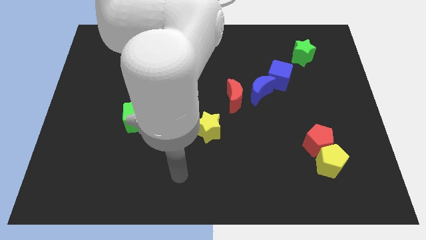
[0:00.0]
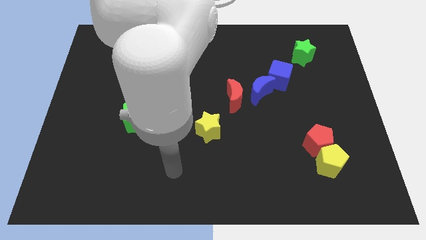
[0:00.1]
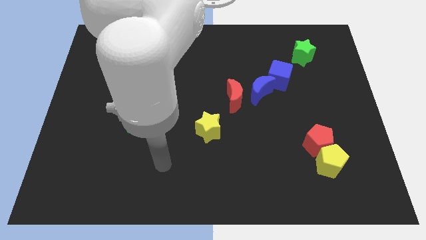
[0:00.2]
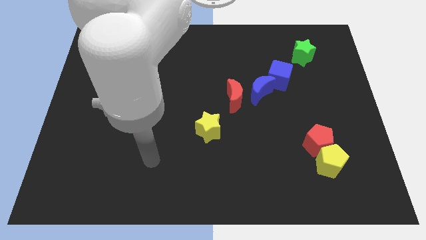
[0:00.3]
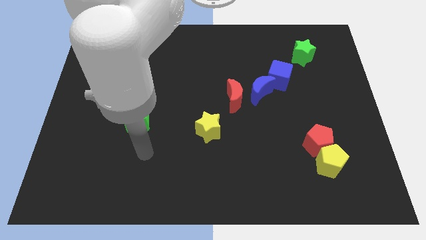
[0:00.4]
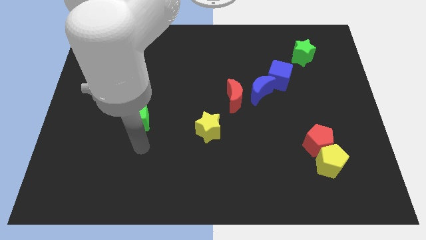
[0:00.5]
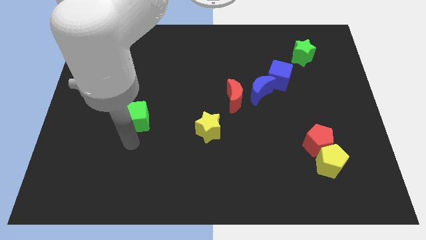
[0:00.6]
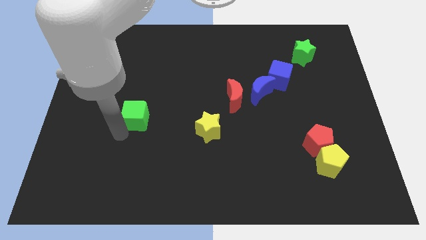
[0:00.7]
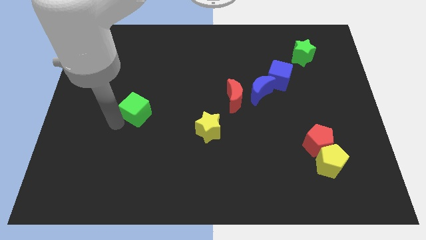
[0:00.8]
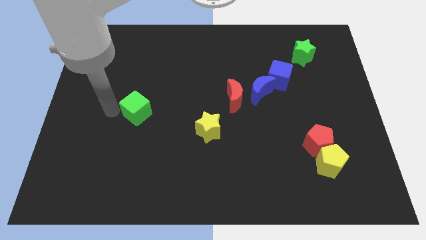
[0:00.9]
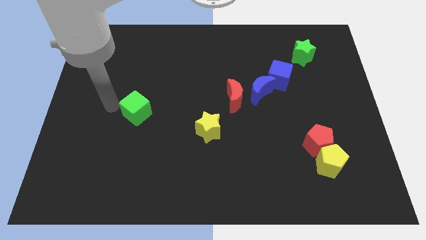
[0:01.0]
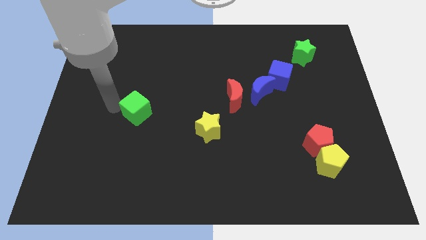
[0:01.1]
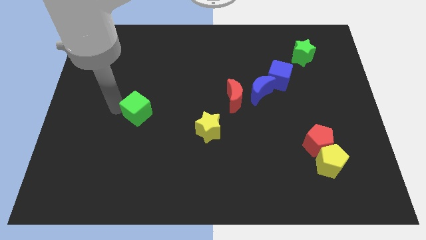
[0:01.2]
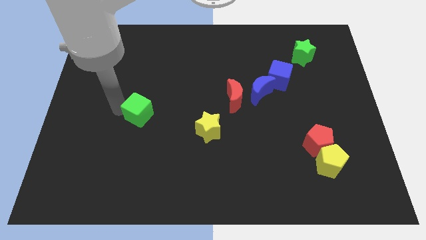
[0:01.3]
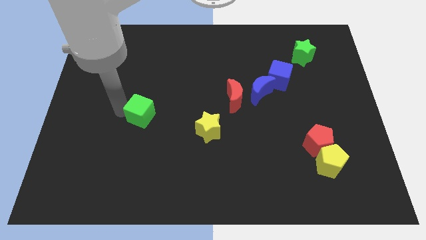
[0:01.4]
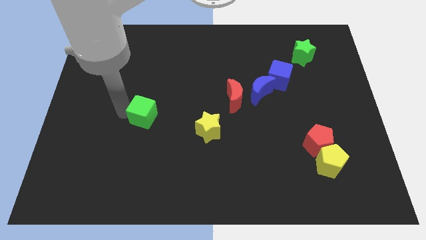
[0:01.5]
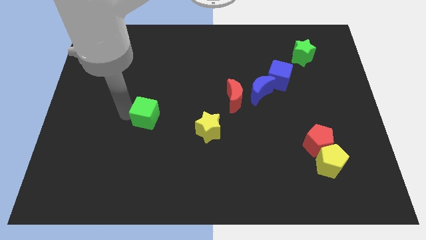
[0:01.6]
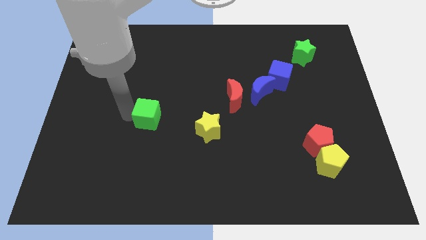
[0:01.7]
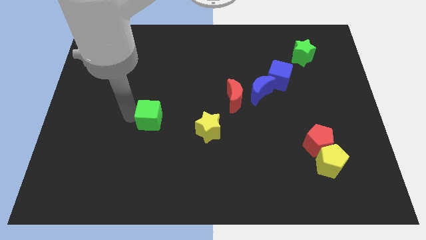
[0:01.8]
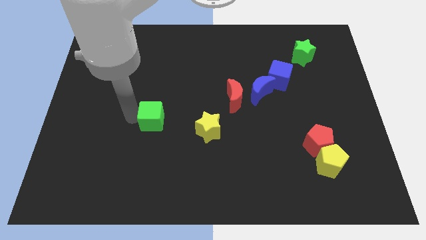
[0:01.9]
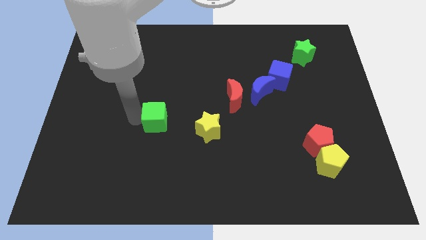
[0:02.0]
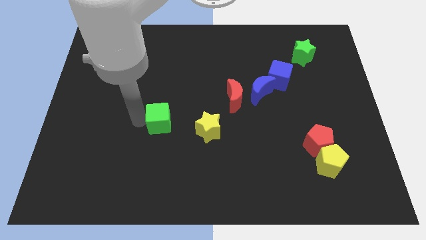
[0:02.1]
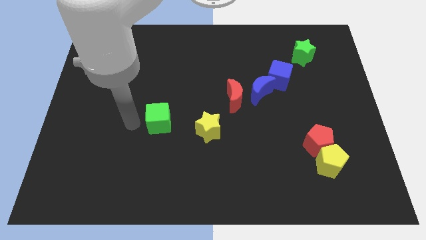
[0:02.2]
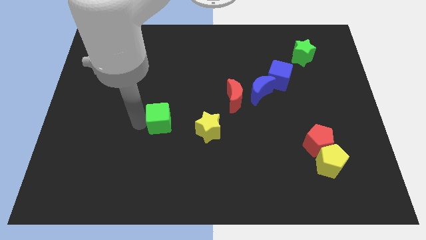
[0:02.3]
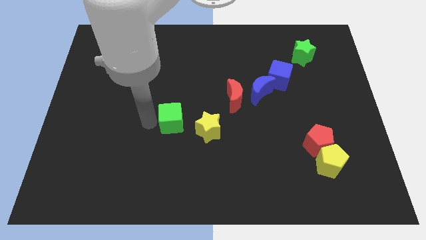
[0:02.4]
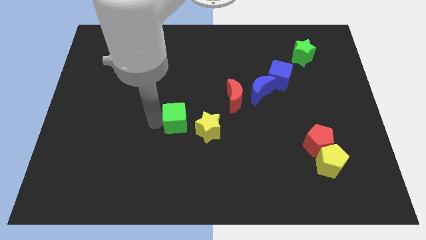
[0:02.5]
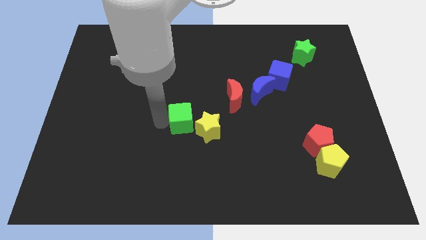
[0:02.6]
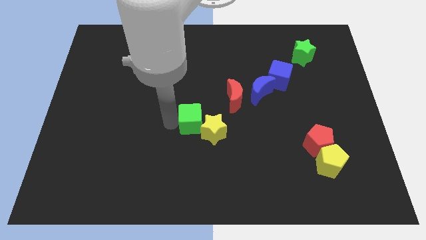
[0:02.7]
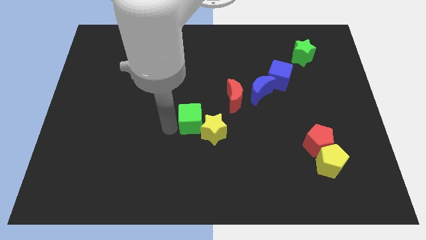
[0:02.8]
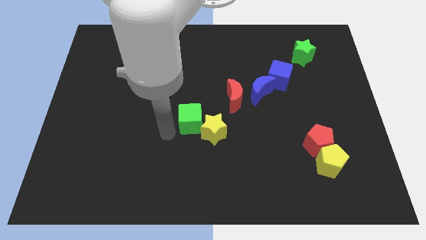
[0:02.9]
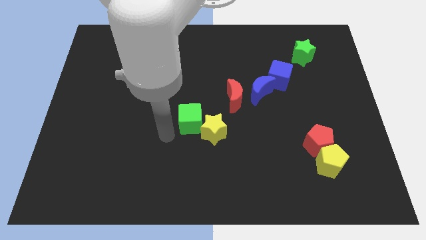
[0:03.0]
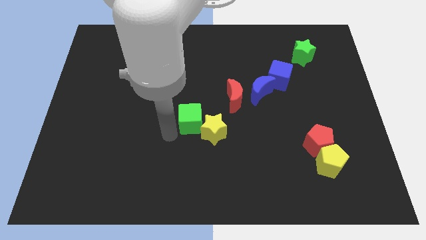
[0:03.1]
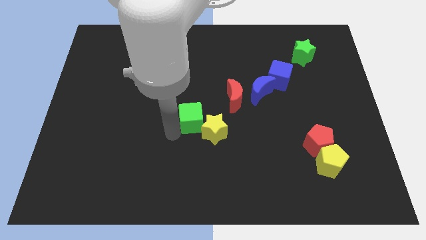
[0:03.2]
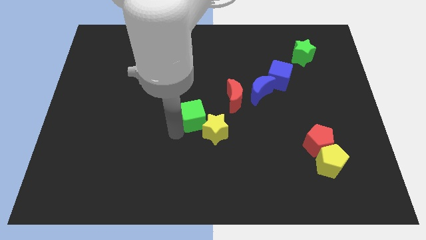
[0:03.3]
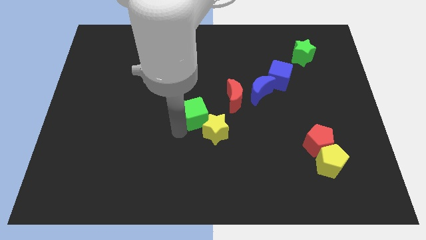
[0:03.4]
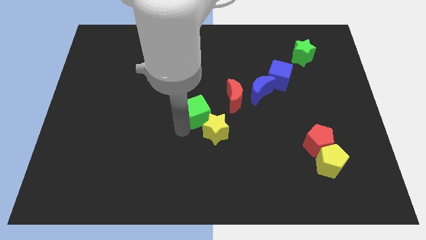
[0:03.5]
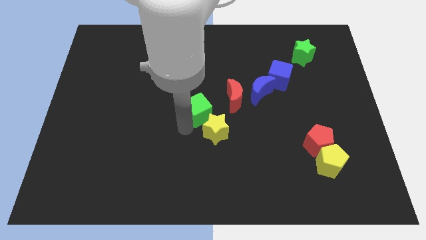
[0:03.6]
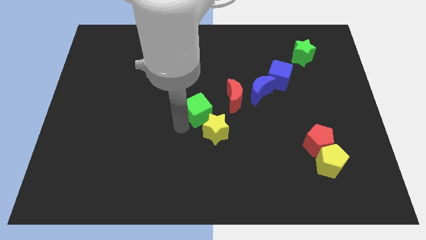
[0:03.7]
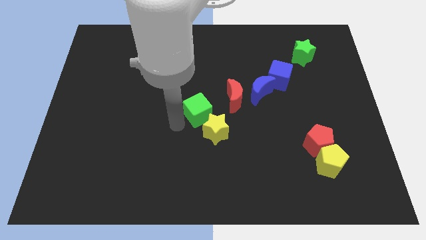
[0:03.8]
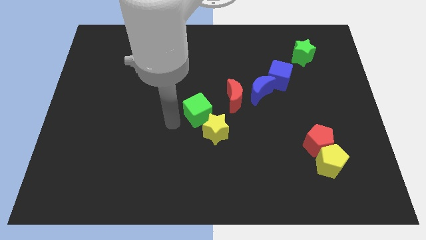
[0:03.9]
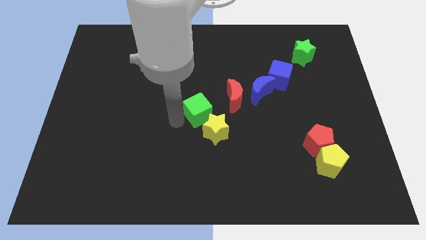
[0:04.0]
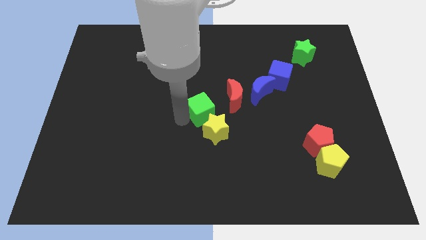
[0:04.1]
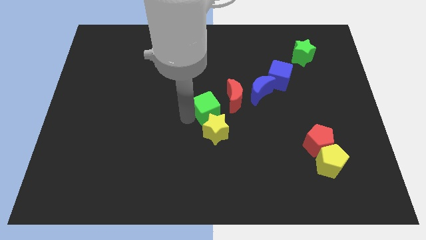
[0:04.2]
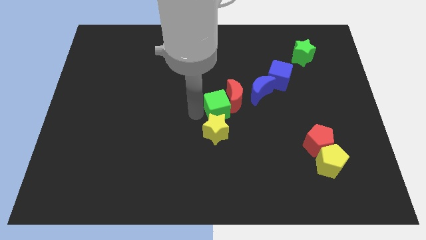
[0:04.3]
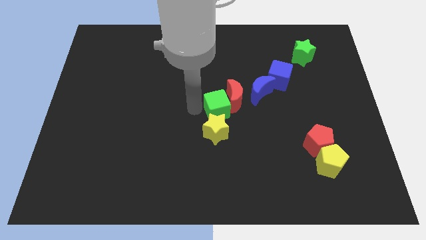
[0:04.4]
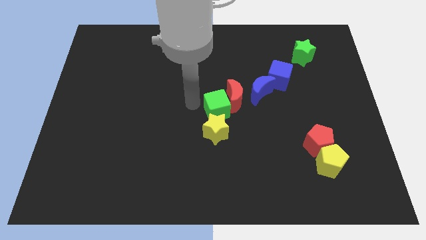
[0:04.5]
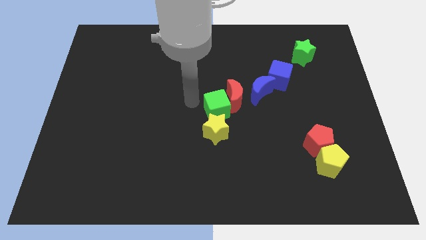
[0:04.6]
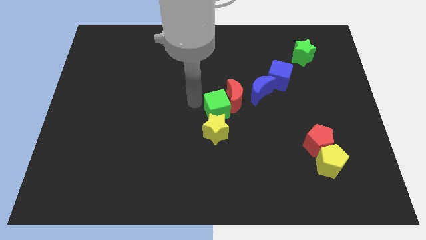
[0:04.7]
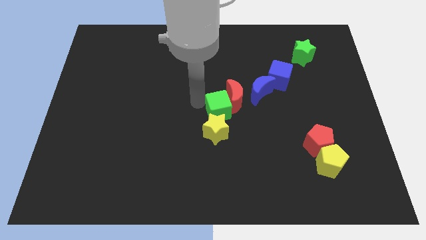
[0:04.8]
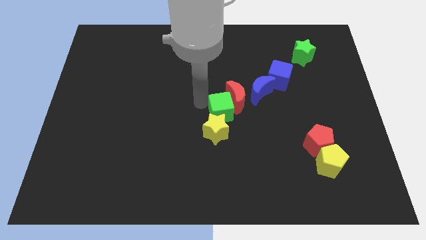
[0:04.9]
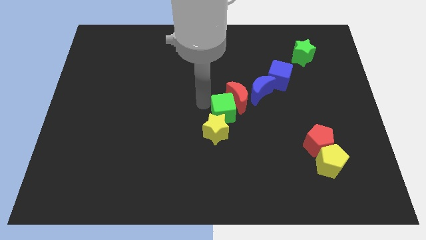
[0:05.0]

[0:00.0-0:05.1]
push the green cube to the right

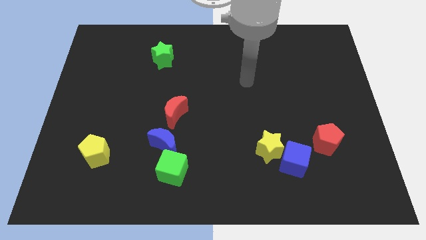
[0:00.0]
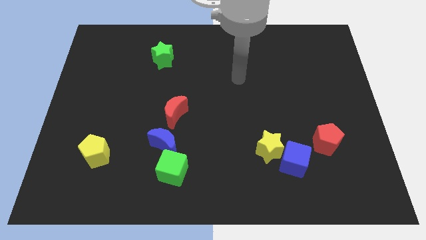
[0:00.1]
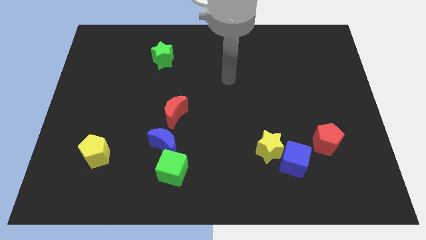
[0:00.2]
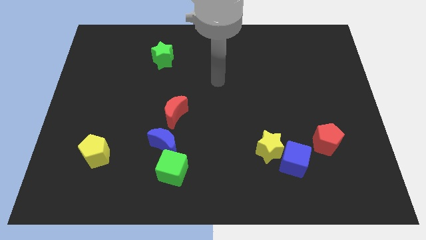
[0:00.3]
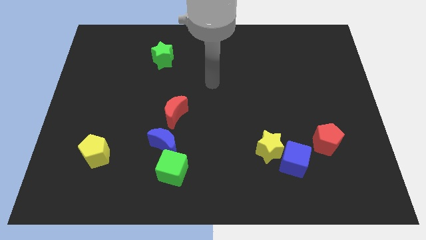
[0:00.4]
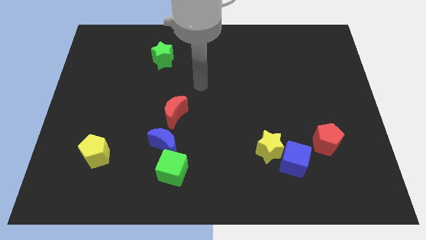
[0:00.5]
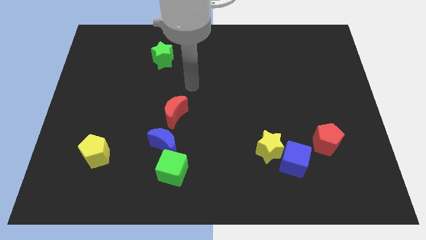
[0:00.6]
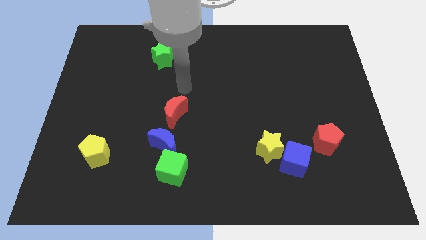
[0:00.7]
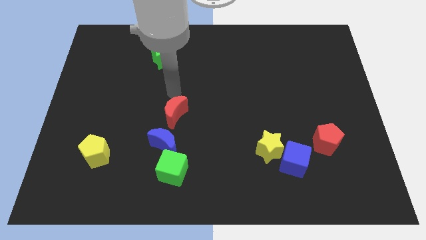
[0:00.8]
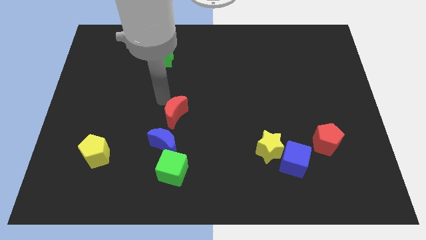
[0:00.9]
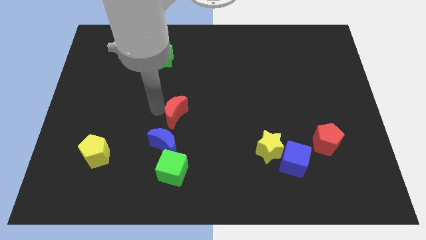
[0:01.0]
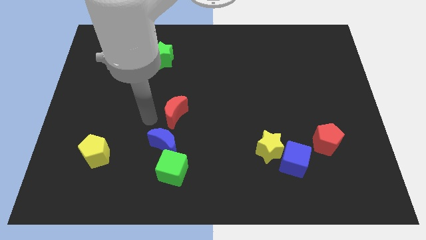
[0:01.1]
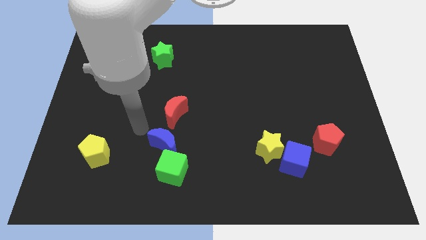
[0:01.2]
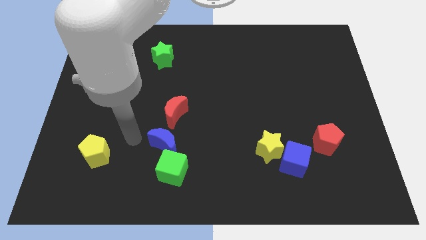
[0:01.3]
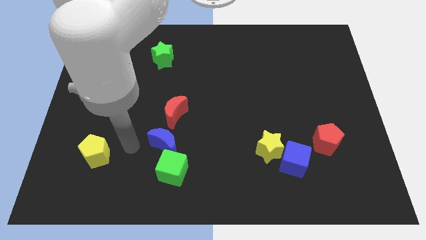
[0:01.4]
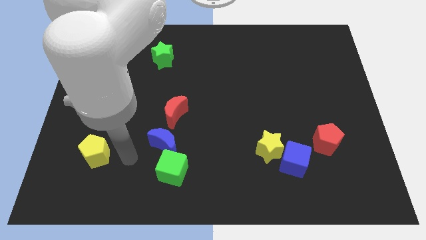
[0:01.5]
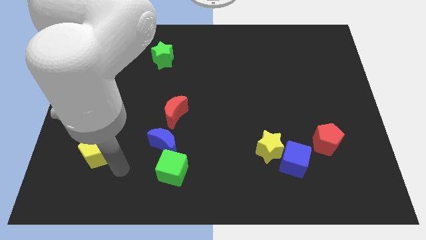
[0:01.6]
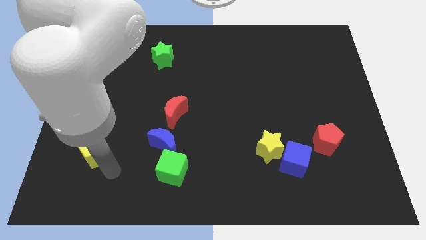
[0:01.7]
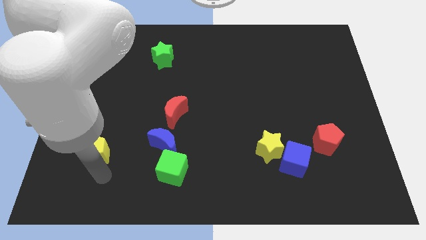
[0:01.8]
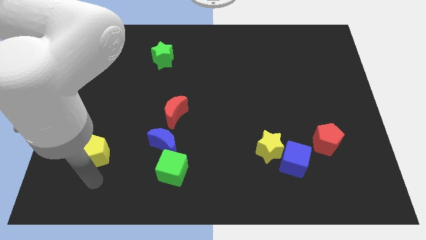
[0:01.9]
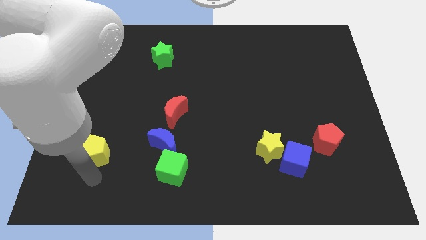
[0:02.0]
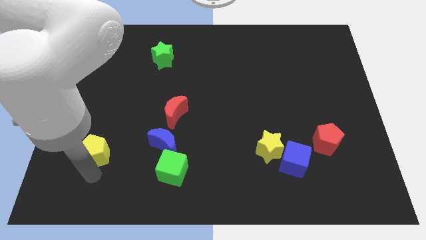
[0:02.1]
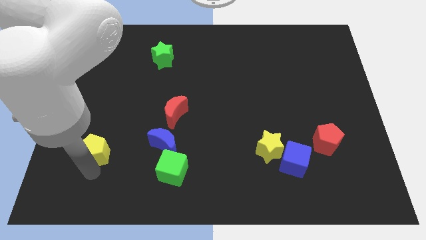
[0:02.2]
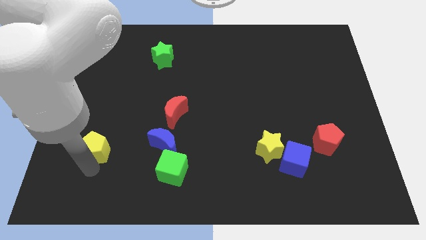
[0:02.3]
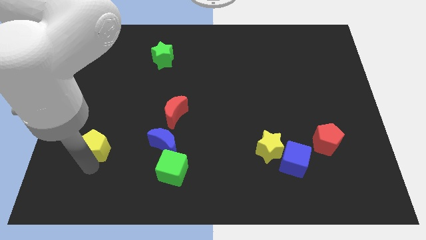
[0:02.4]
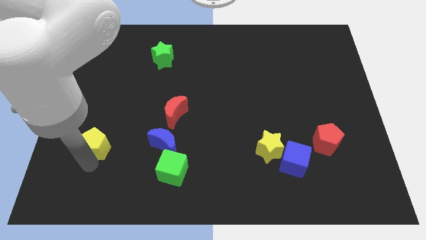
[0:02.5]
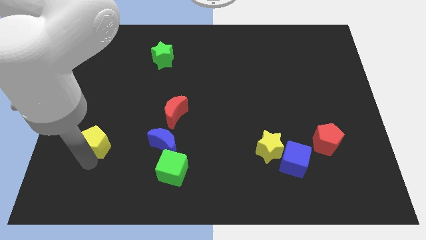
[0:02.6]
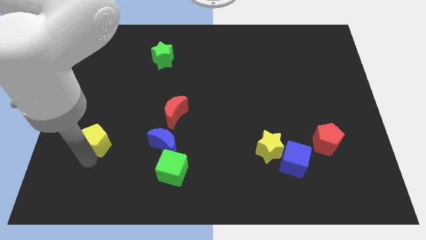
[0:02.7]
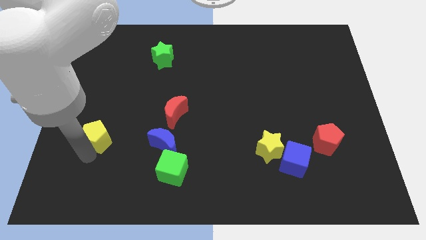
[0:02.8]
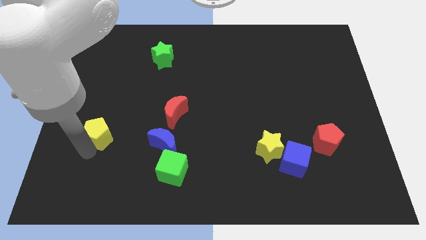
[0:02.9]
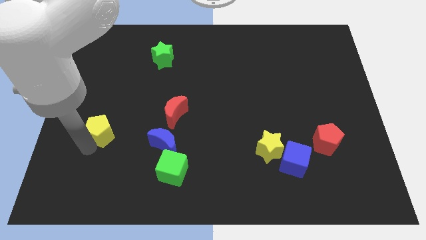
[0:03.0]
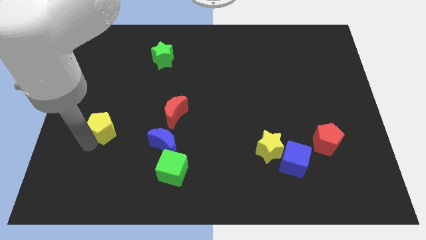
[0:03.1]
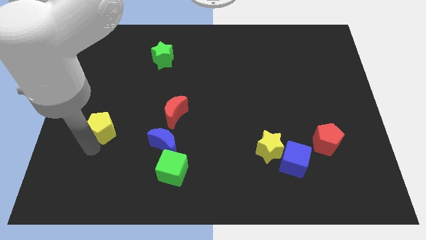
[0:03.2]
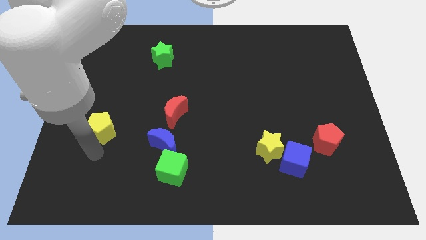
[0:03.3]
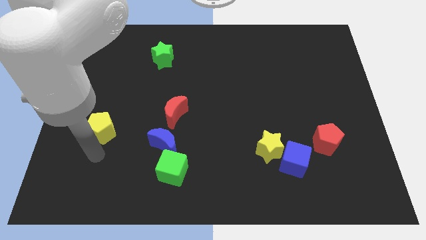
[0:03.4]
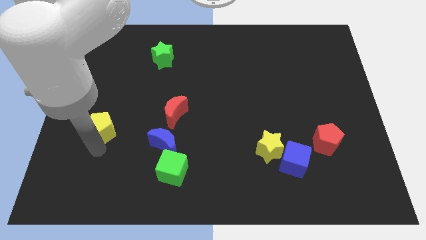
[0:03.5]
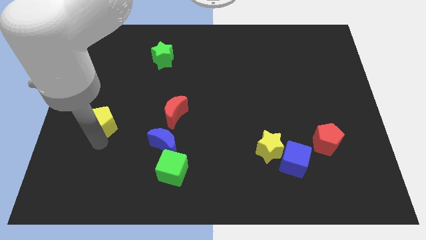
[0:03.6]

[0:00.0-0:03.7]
push the yellow pentagon somewhat up
